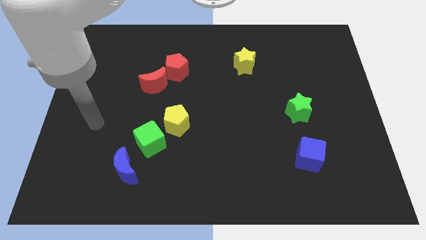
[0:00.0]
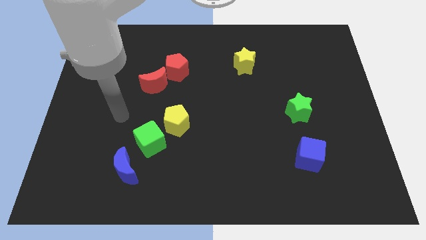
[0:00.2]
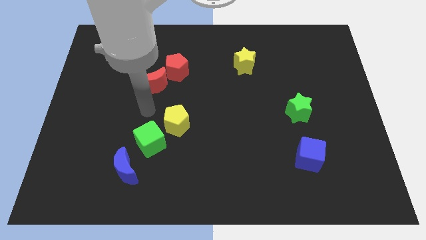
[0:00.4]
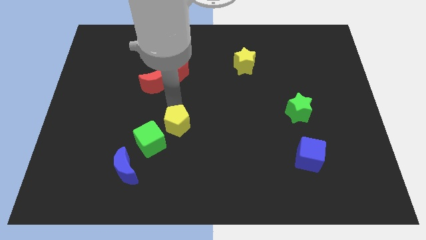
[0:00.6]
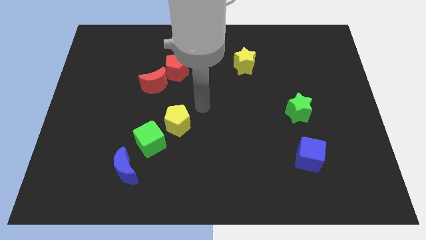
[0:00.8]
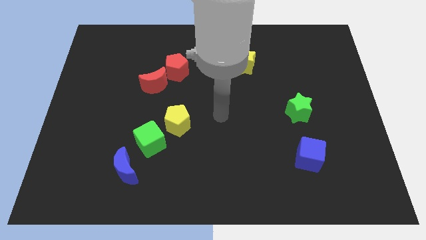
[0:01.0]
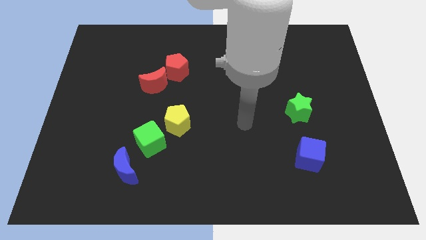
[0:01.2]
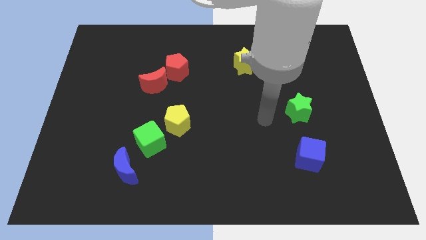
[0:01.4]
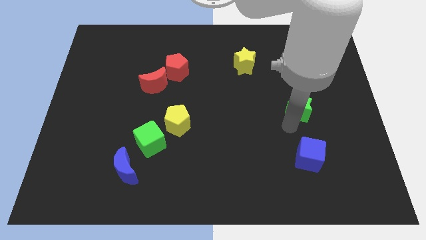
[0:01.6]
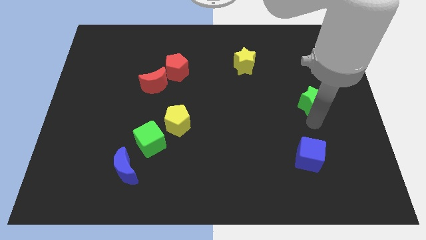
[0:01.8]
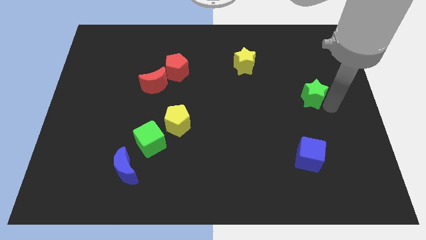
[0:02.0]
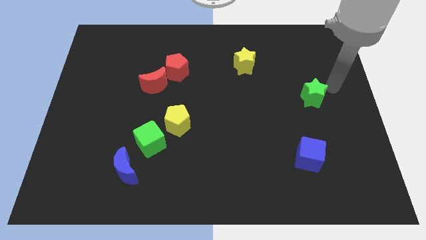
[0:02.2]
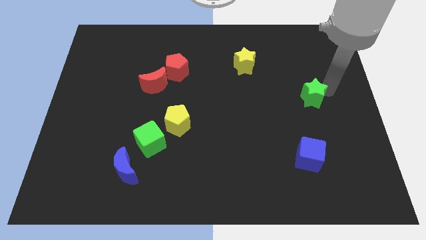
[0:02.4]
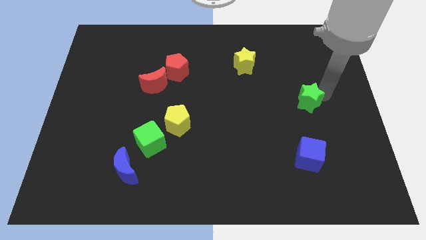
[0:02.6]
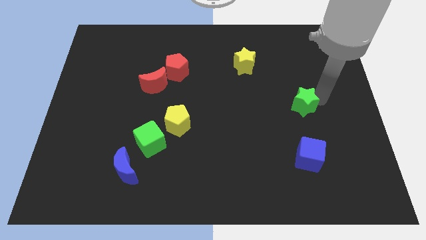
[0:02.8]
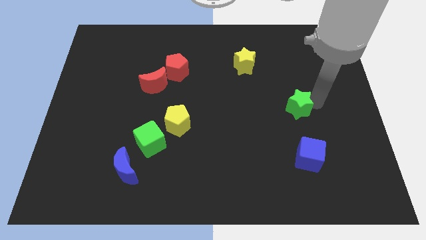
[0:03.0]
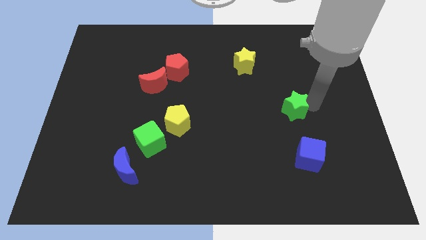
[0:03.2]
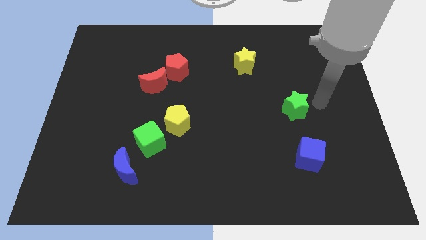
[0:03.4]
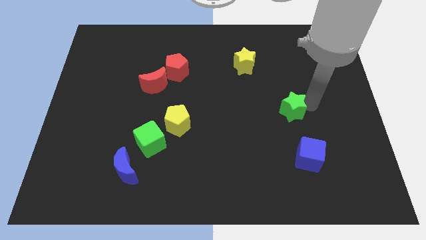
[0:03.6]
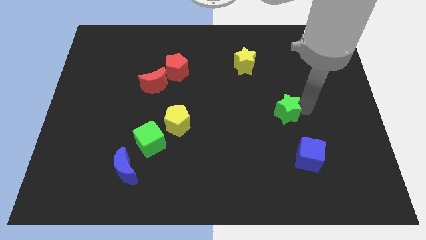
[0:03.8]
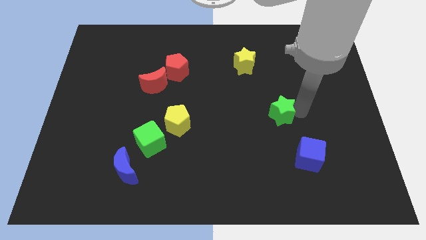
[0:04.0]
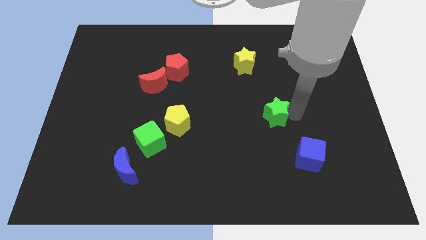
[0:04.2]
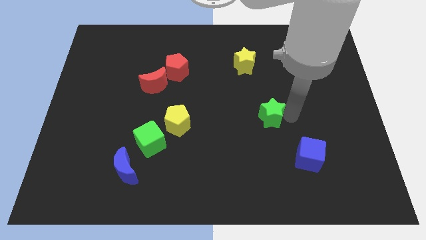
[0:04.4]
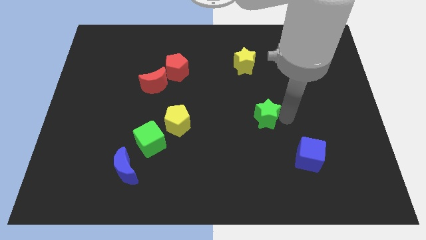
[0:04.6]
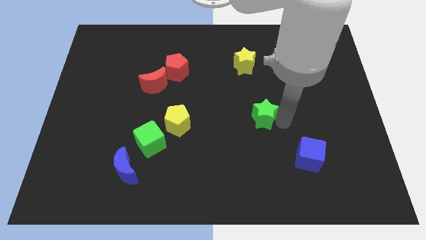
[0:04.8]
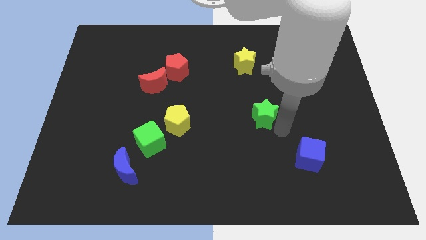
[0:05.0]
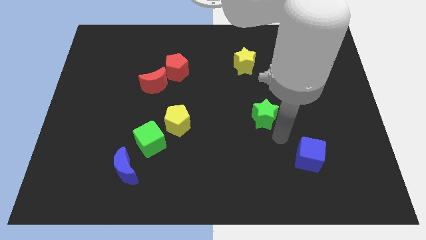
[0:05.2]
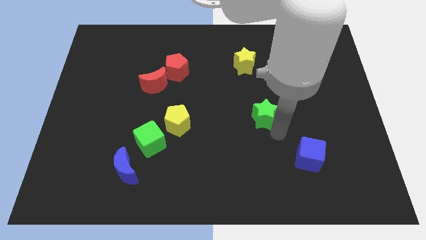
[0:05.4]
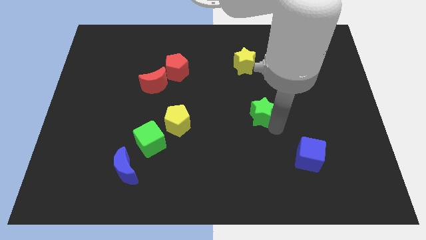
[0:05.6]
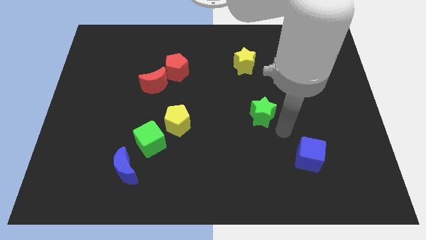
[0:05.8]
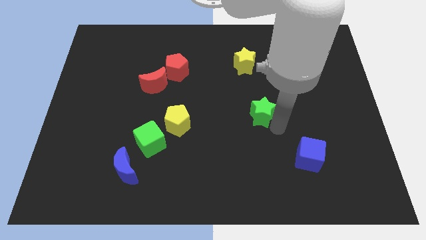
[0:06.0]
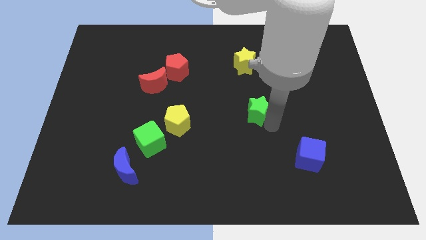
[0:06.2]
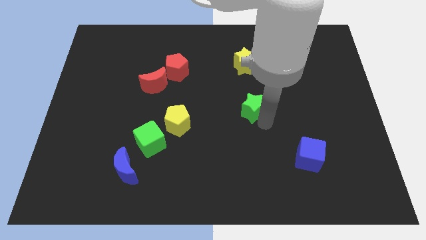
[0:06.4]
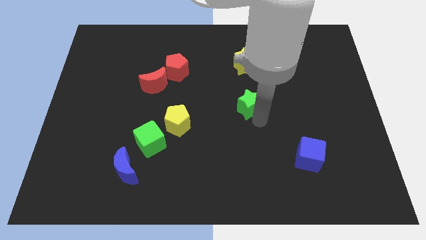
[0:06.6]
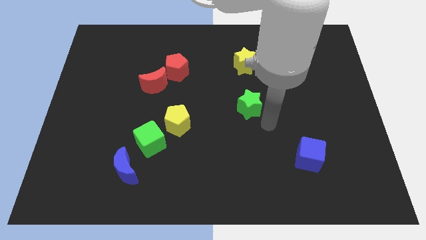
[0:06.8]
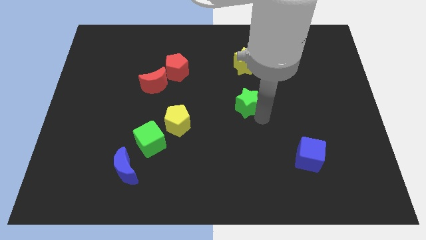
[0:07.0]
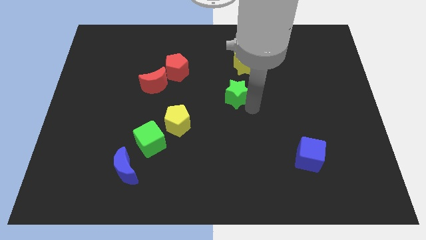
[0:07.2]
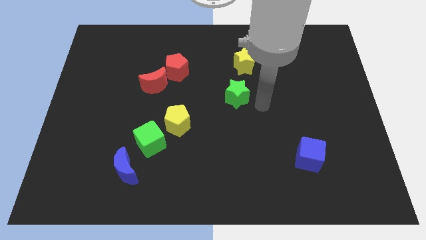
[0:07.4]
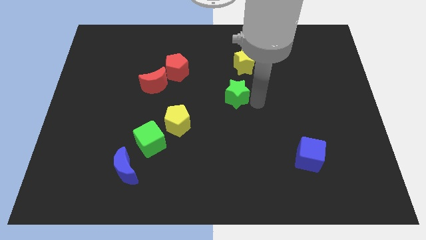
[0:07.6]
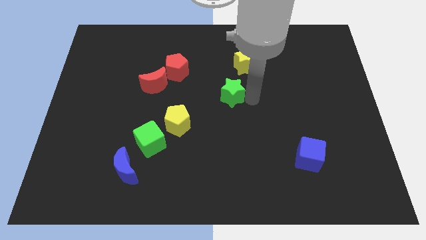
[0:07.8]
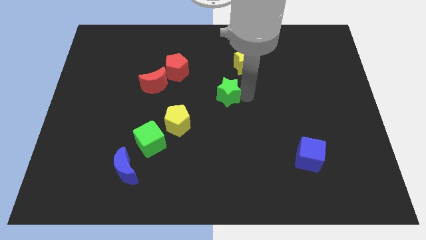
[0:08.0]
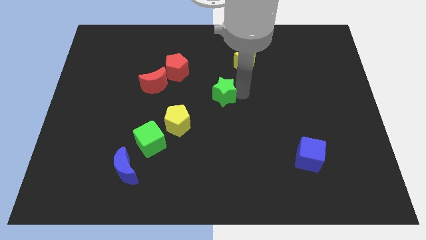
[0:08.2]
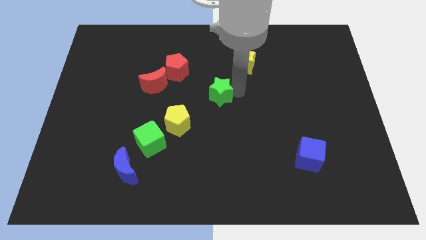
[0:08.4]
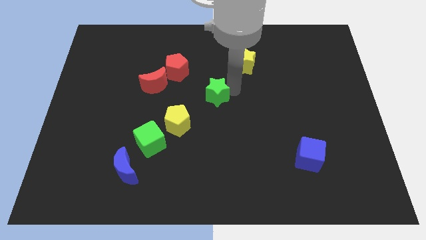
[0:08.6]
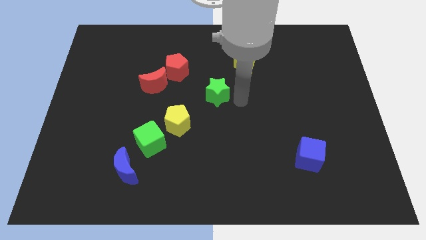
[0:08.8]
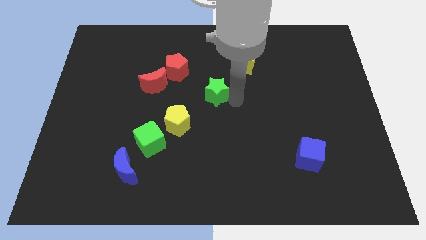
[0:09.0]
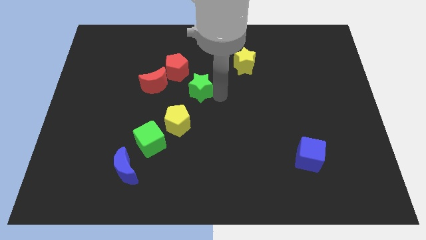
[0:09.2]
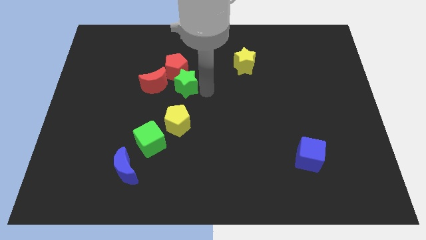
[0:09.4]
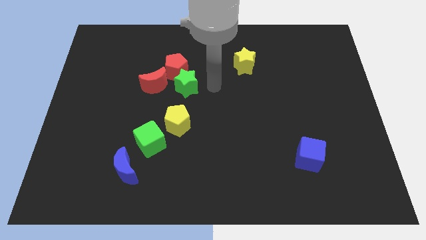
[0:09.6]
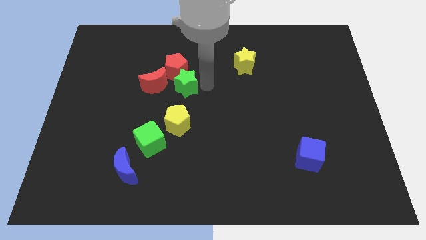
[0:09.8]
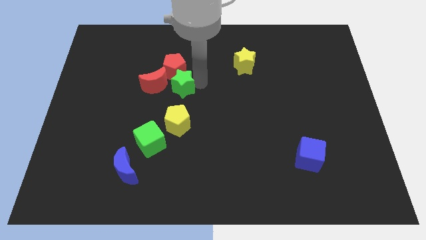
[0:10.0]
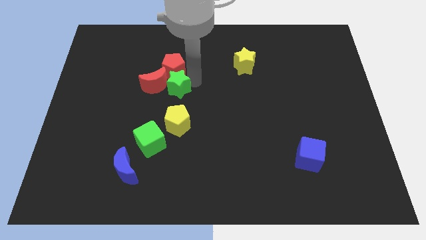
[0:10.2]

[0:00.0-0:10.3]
put the green star next to the red moon

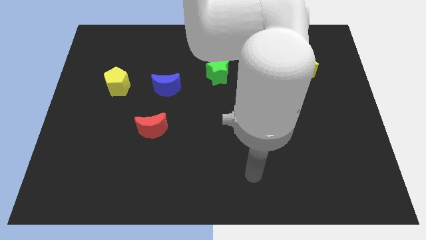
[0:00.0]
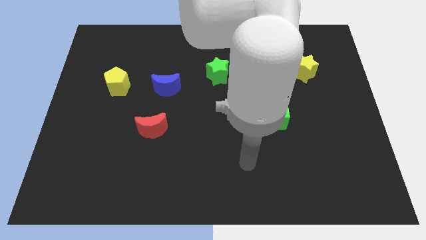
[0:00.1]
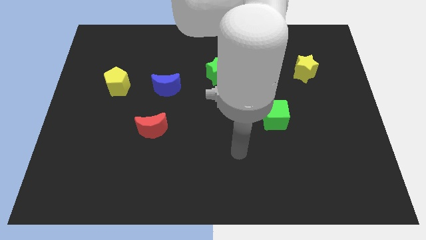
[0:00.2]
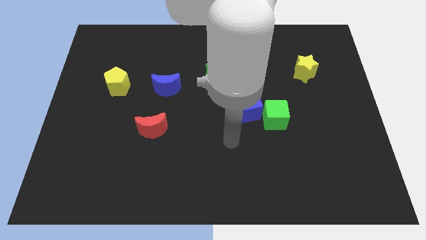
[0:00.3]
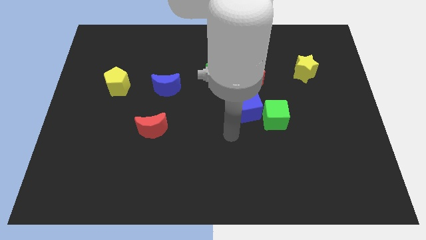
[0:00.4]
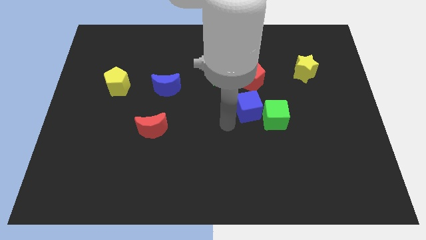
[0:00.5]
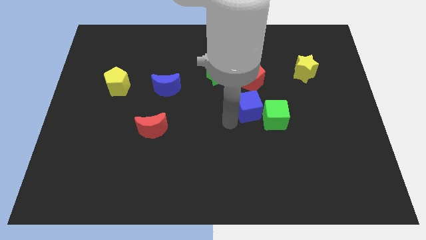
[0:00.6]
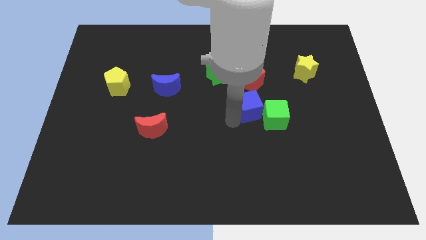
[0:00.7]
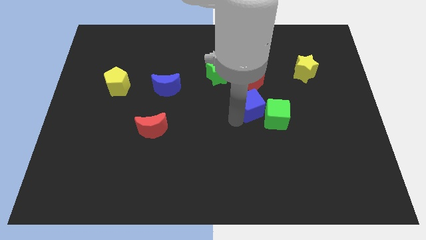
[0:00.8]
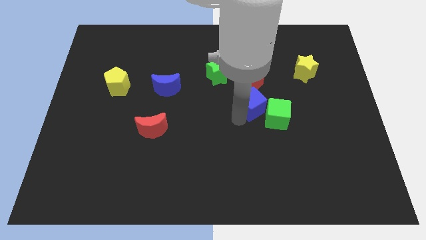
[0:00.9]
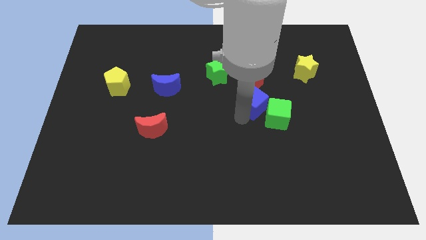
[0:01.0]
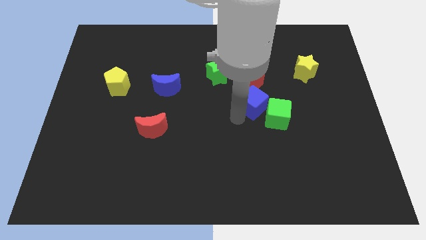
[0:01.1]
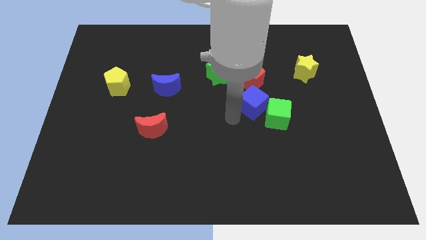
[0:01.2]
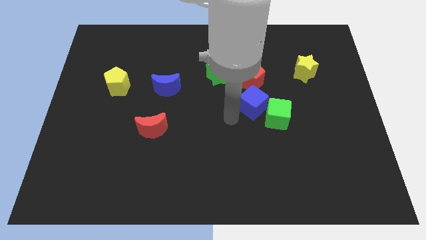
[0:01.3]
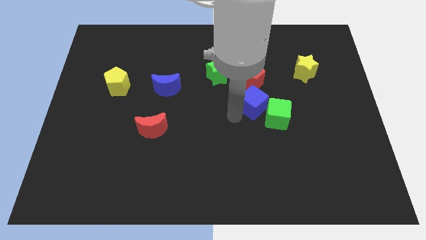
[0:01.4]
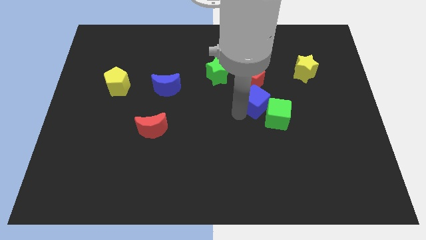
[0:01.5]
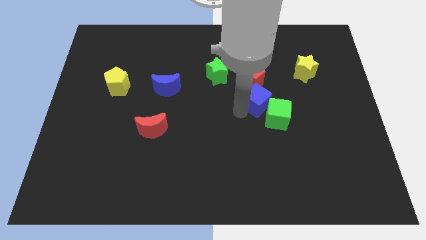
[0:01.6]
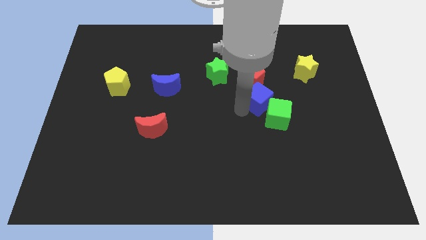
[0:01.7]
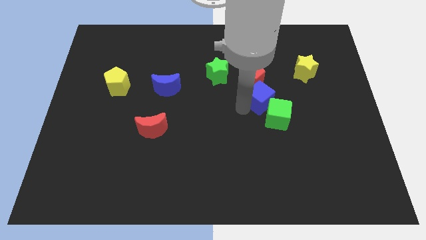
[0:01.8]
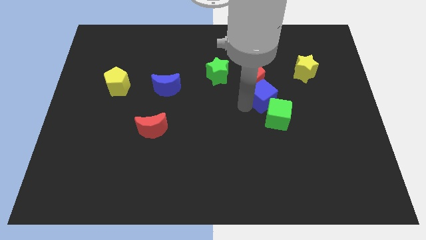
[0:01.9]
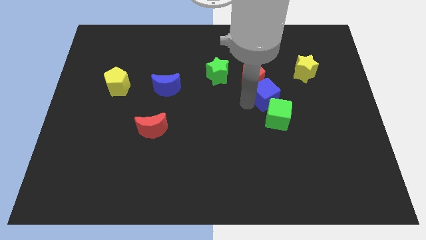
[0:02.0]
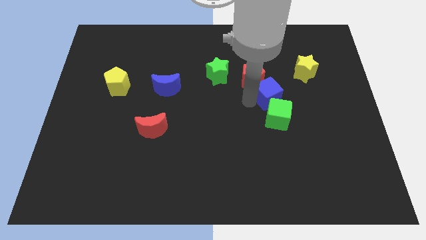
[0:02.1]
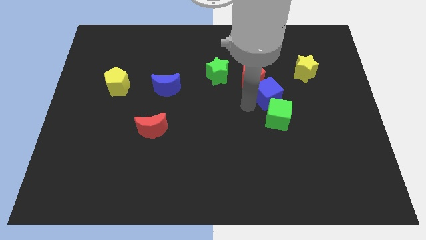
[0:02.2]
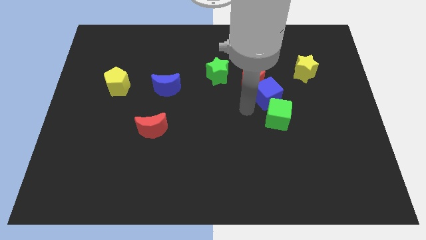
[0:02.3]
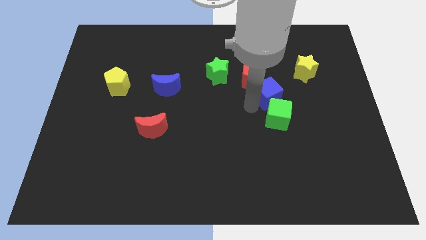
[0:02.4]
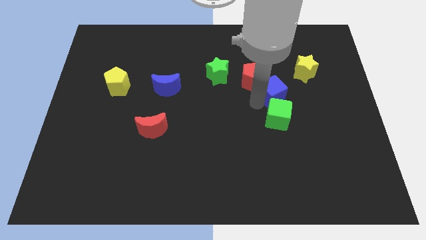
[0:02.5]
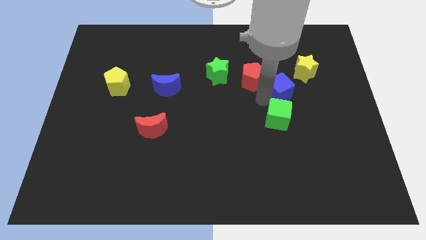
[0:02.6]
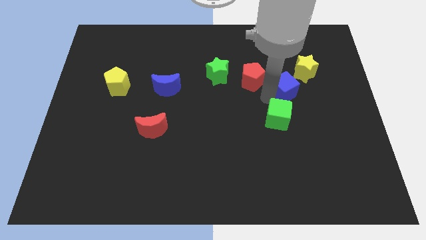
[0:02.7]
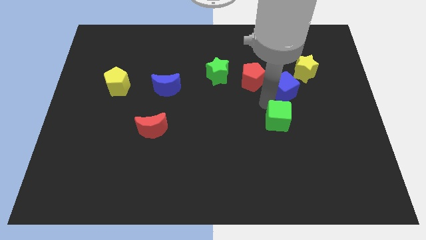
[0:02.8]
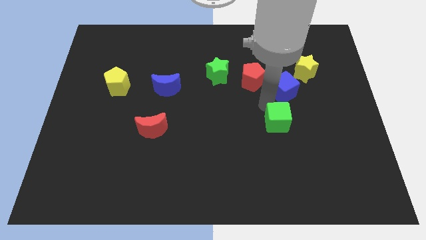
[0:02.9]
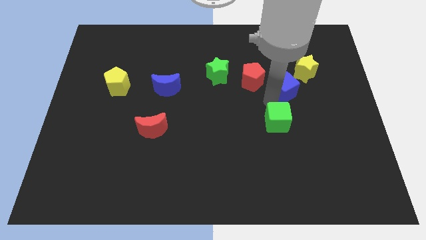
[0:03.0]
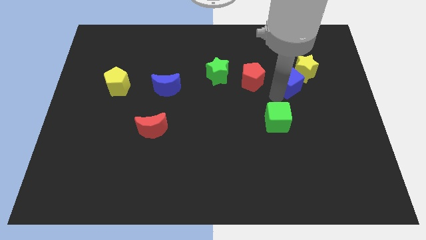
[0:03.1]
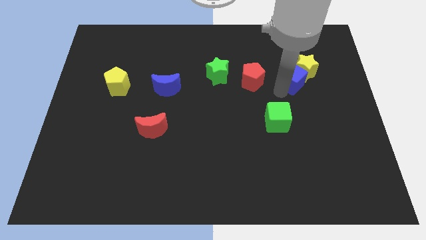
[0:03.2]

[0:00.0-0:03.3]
put the blue cube next to the yellow star
